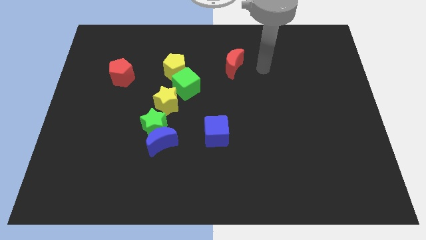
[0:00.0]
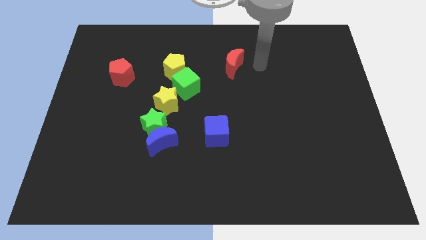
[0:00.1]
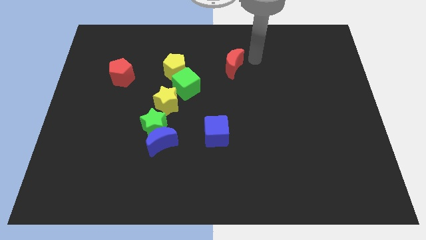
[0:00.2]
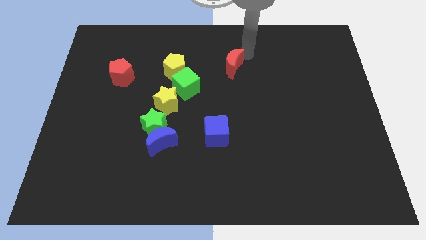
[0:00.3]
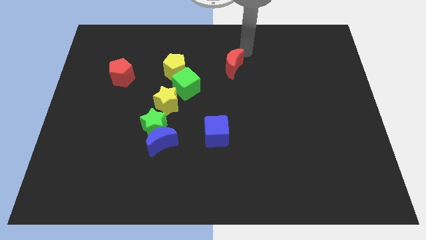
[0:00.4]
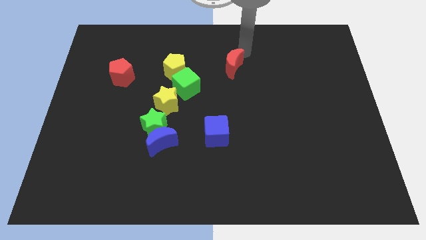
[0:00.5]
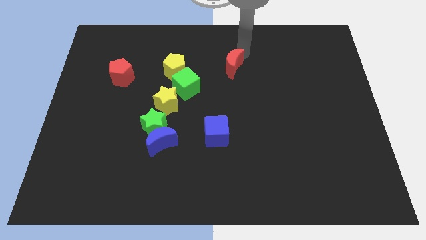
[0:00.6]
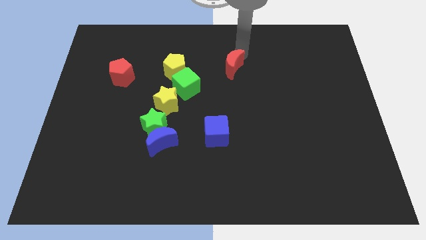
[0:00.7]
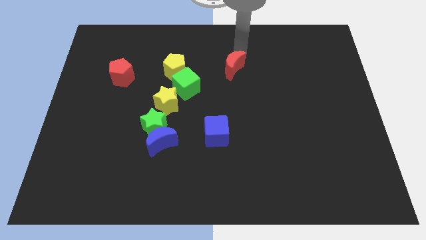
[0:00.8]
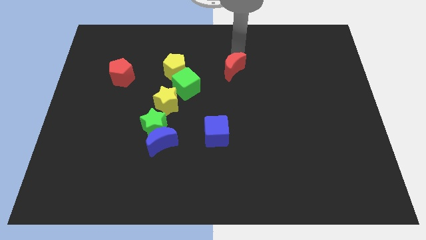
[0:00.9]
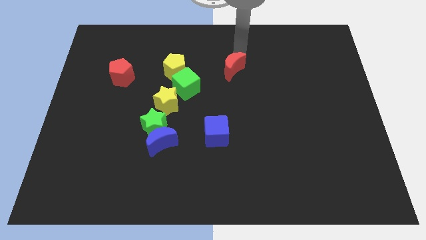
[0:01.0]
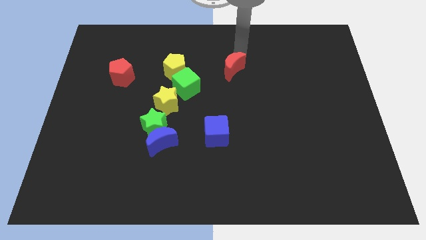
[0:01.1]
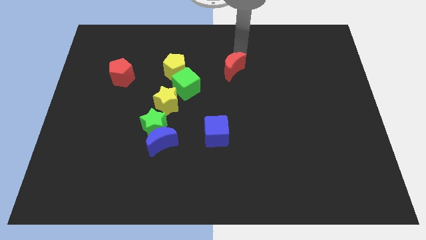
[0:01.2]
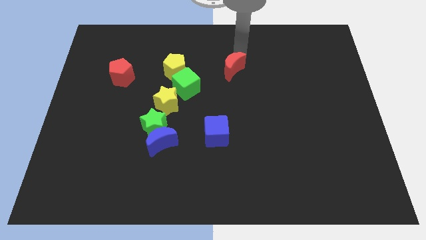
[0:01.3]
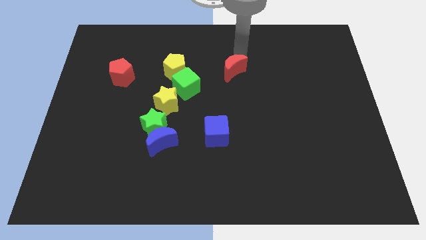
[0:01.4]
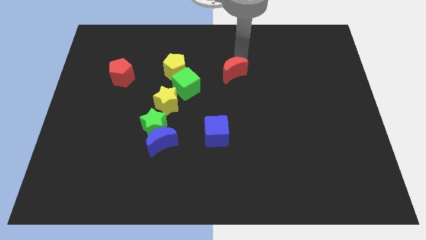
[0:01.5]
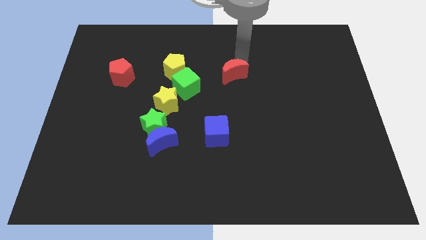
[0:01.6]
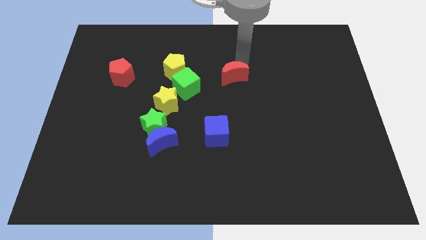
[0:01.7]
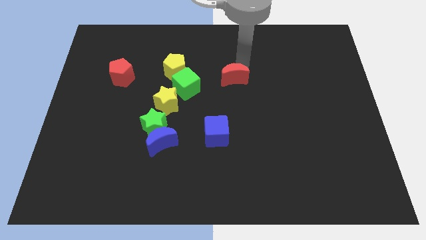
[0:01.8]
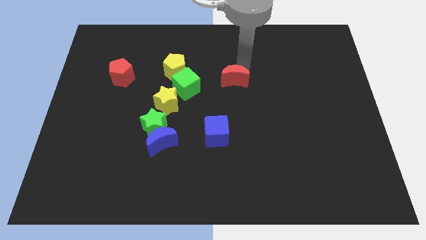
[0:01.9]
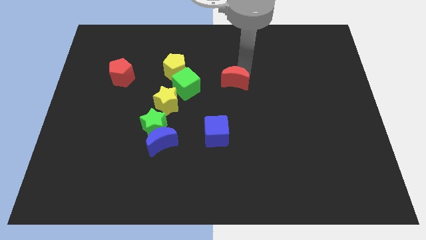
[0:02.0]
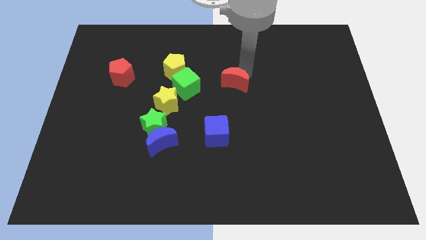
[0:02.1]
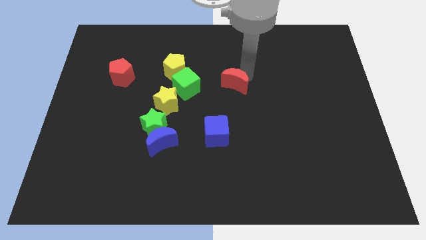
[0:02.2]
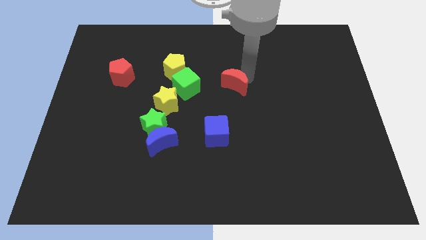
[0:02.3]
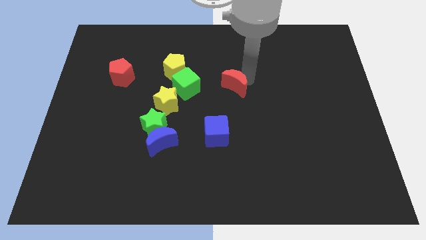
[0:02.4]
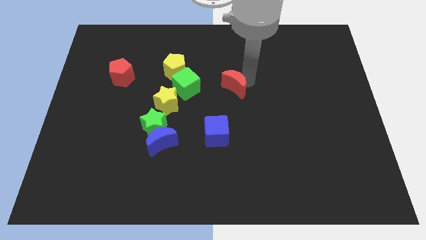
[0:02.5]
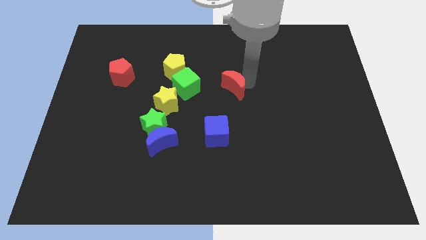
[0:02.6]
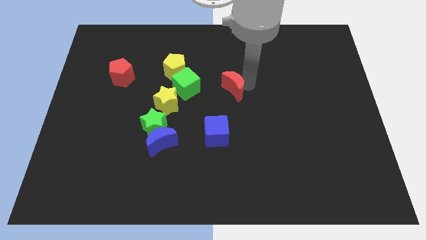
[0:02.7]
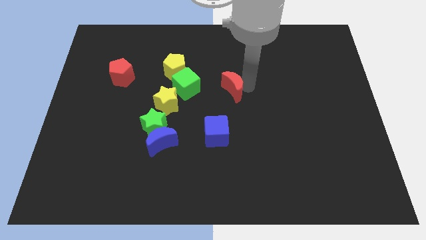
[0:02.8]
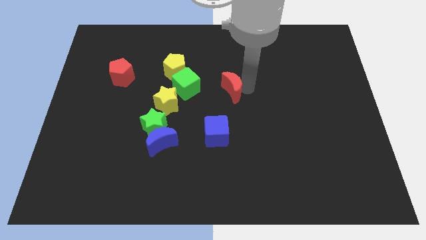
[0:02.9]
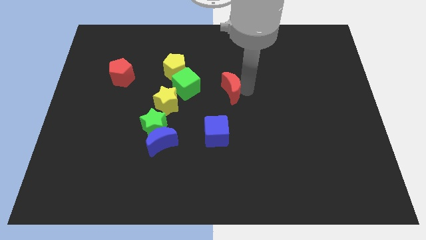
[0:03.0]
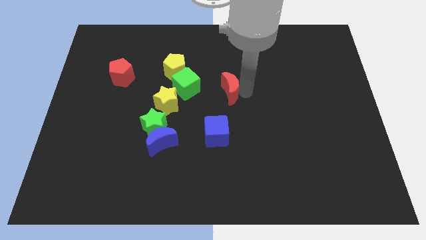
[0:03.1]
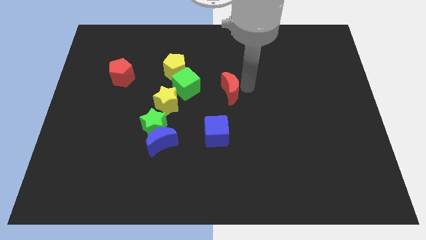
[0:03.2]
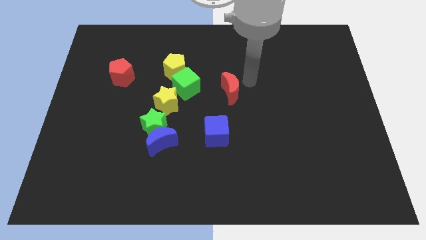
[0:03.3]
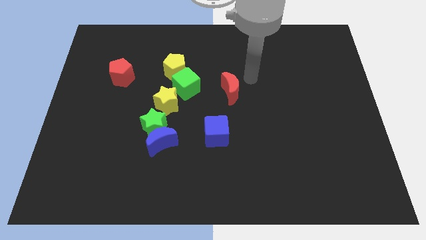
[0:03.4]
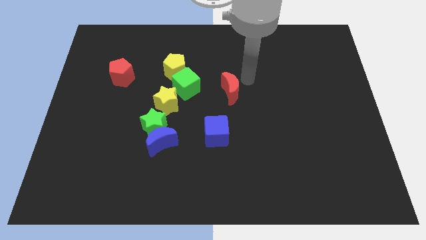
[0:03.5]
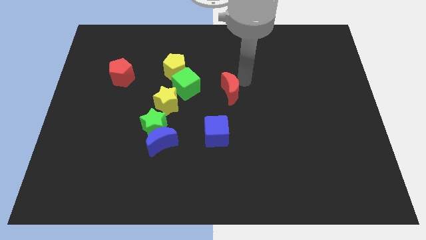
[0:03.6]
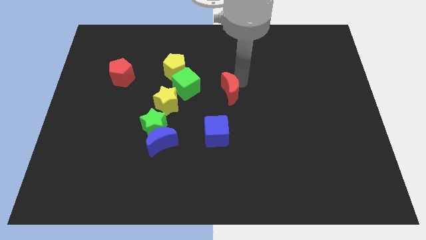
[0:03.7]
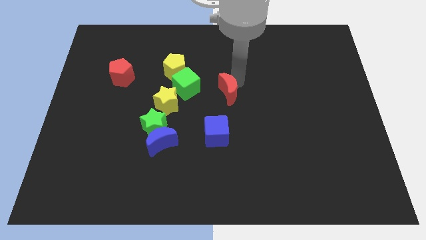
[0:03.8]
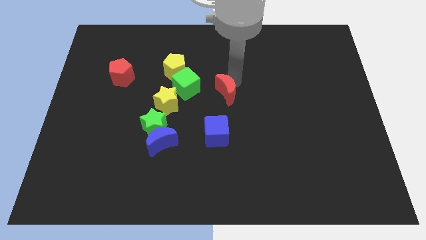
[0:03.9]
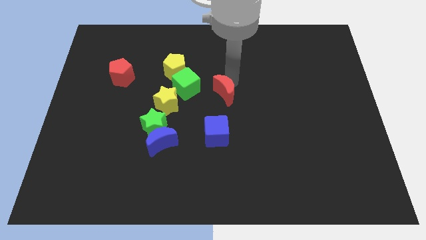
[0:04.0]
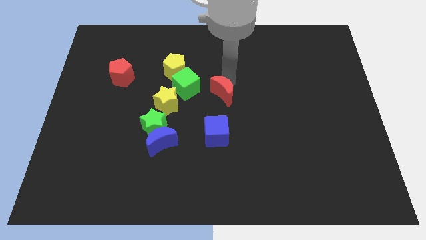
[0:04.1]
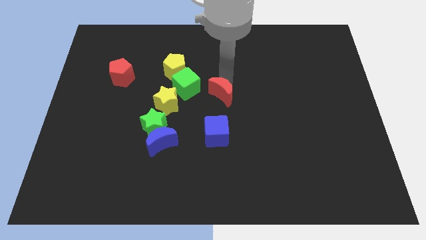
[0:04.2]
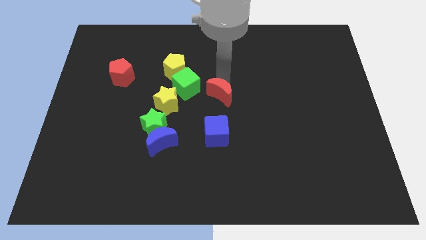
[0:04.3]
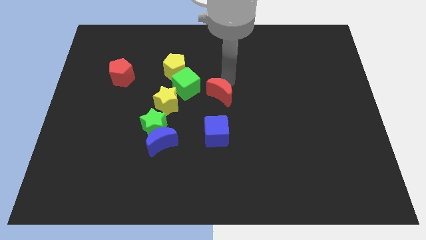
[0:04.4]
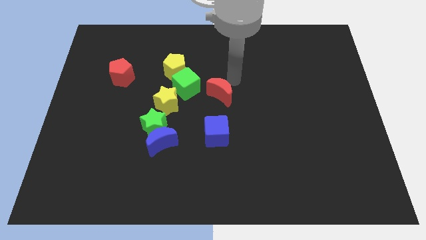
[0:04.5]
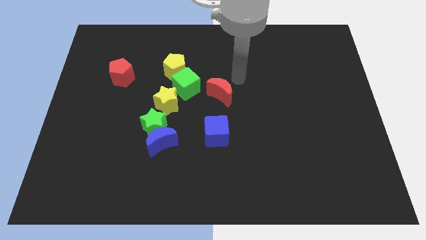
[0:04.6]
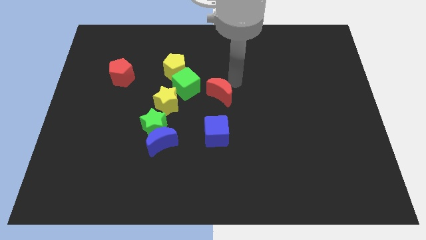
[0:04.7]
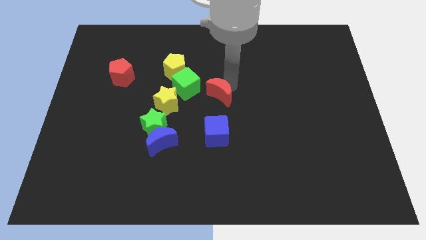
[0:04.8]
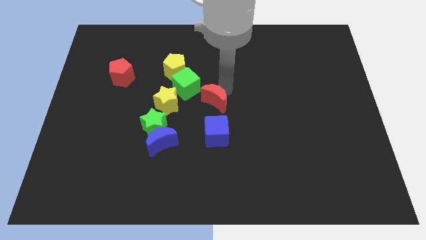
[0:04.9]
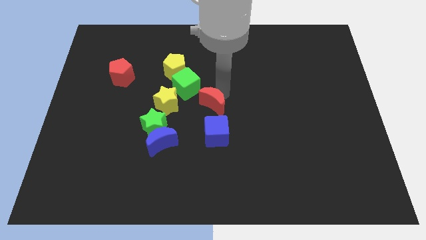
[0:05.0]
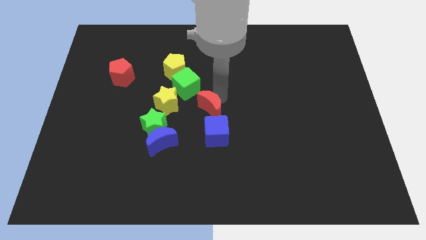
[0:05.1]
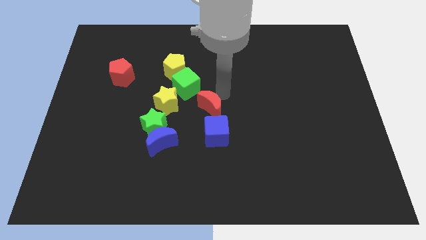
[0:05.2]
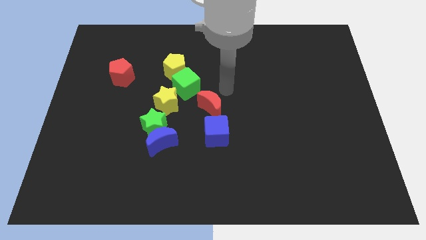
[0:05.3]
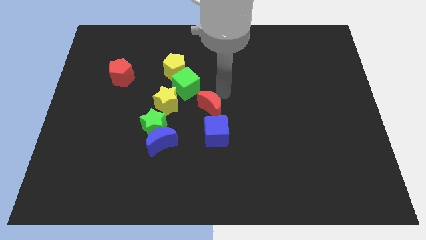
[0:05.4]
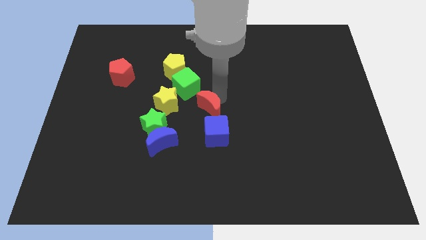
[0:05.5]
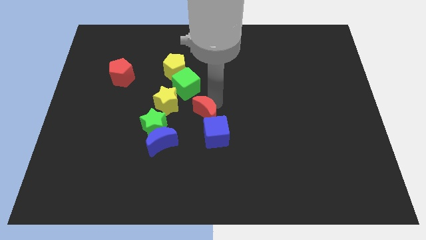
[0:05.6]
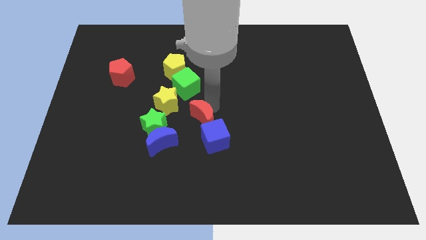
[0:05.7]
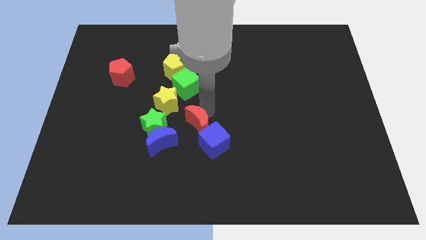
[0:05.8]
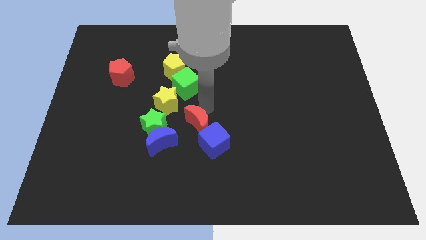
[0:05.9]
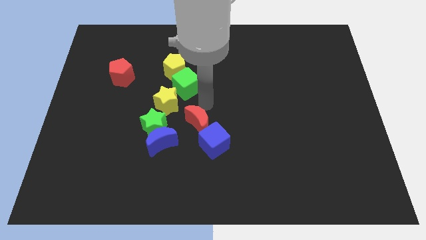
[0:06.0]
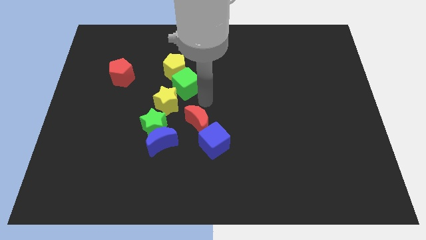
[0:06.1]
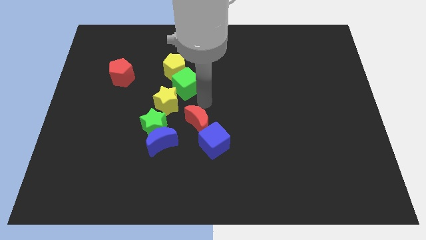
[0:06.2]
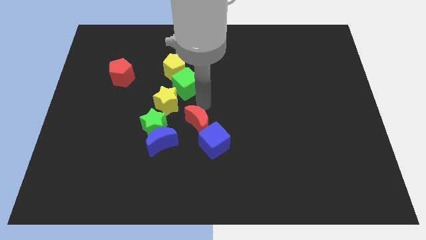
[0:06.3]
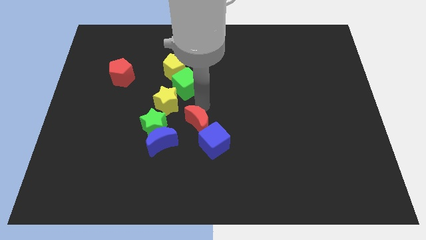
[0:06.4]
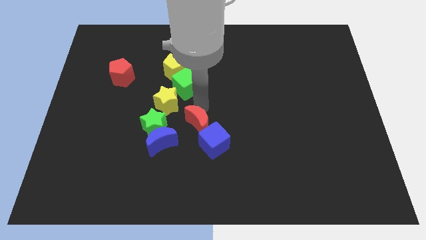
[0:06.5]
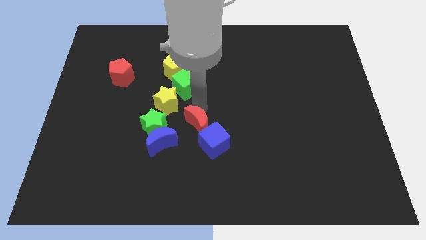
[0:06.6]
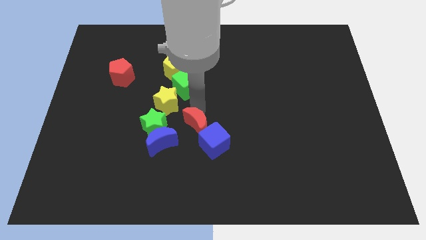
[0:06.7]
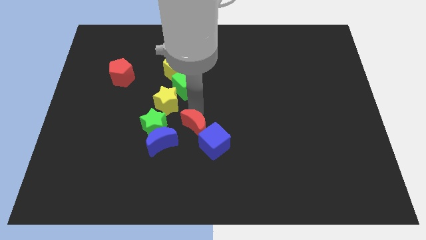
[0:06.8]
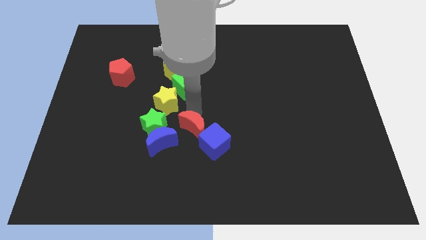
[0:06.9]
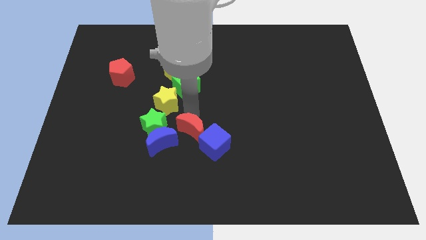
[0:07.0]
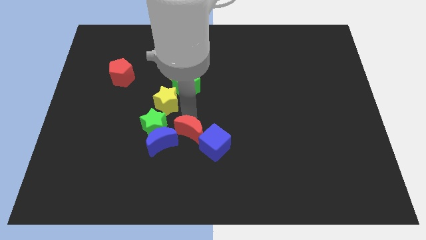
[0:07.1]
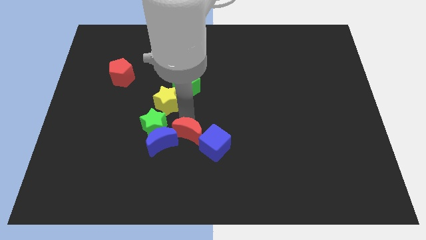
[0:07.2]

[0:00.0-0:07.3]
move the red moon downwards and to the left diagonally

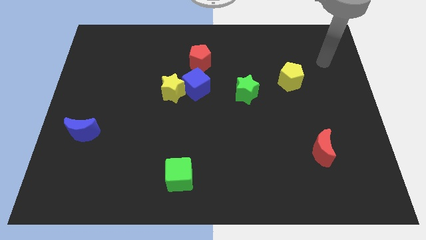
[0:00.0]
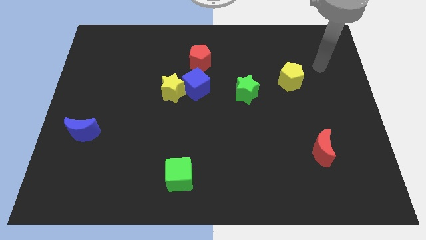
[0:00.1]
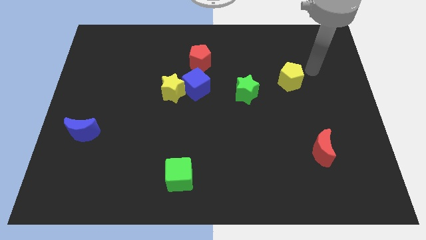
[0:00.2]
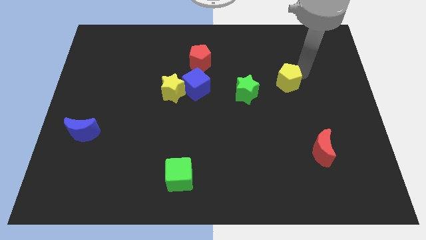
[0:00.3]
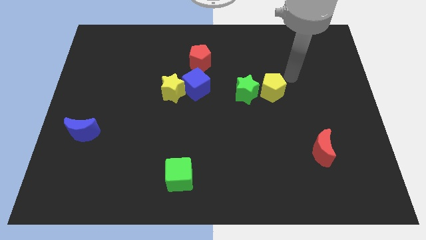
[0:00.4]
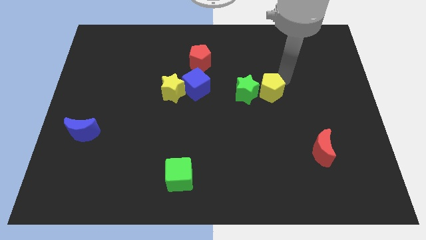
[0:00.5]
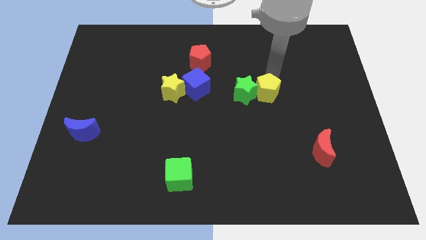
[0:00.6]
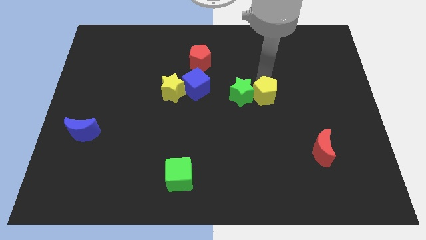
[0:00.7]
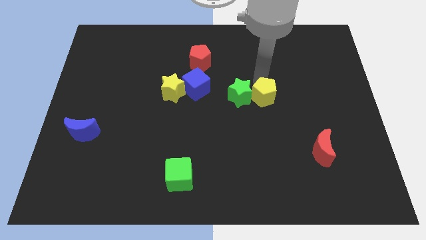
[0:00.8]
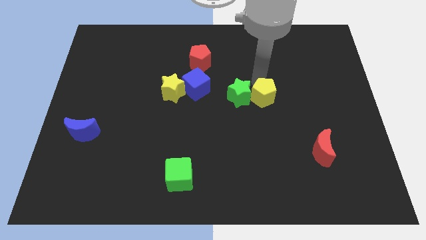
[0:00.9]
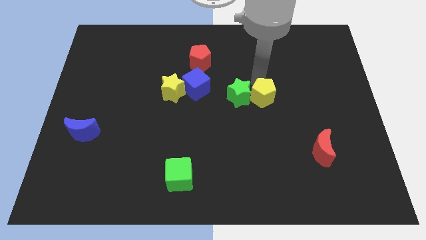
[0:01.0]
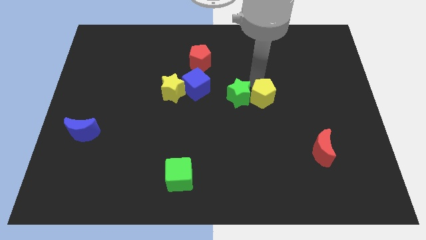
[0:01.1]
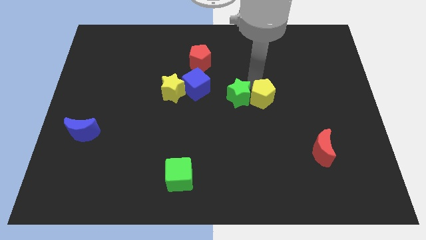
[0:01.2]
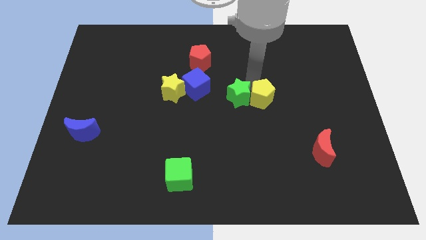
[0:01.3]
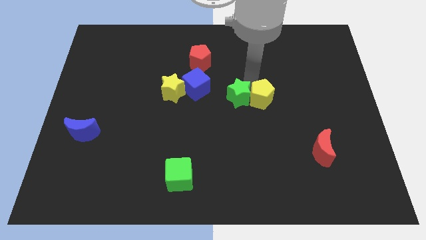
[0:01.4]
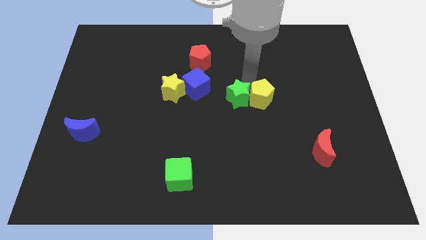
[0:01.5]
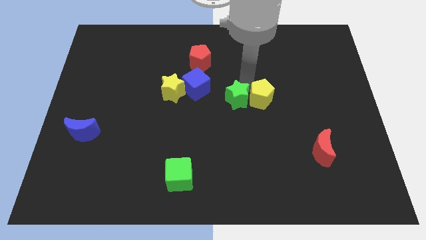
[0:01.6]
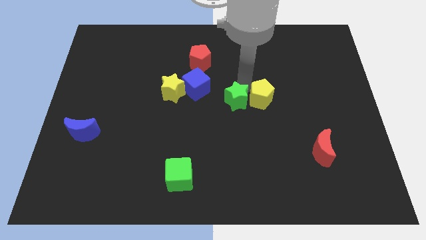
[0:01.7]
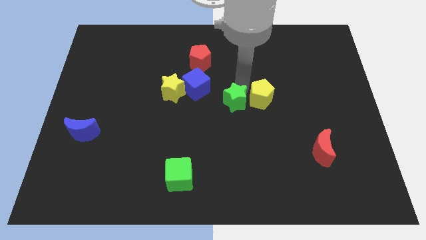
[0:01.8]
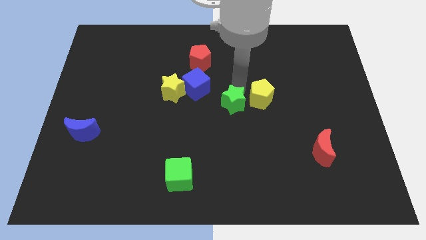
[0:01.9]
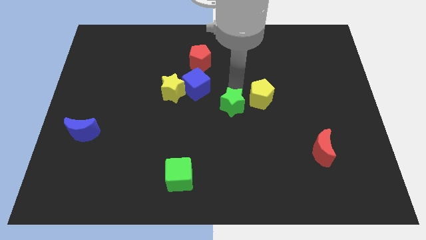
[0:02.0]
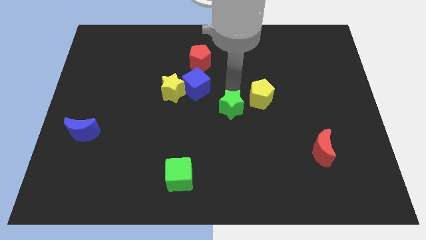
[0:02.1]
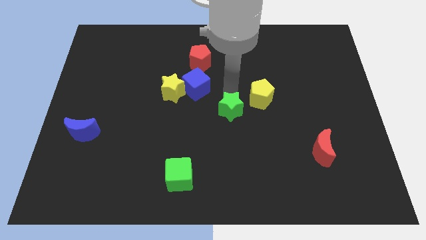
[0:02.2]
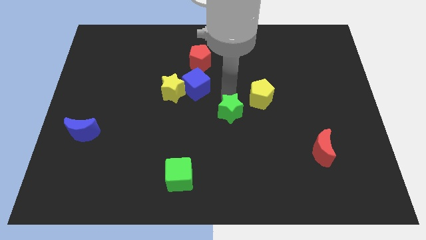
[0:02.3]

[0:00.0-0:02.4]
push the green star downwards and to the left diagonally slightly
